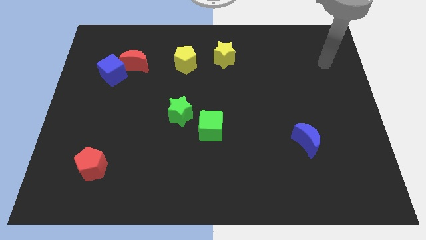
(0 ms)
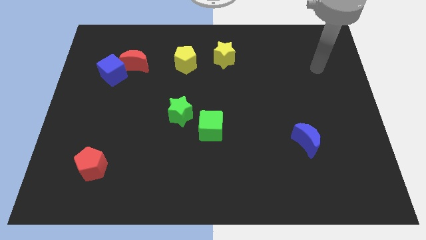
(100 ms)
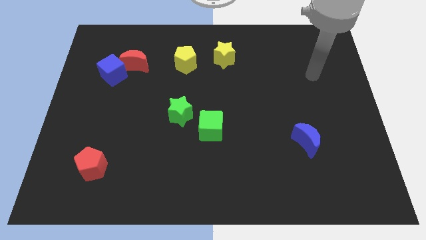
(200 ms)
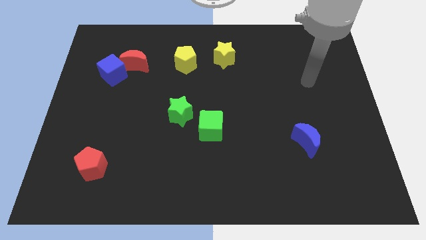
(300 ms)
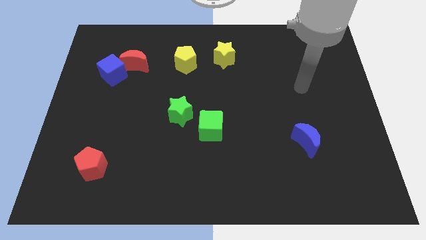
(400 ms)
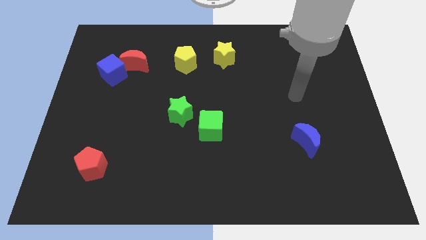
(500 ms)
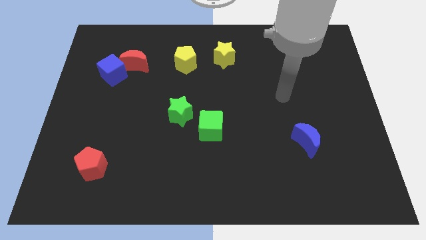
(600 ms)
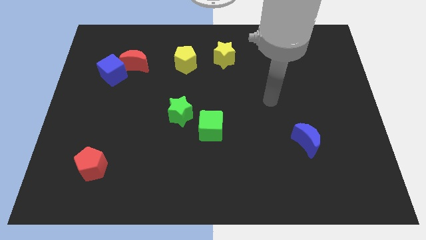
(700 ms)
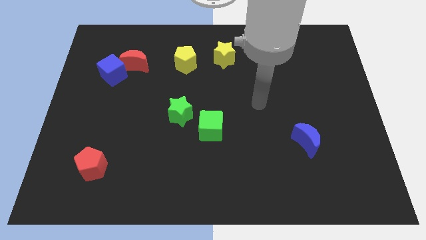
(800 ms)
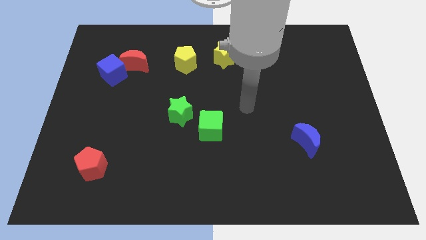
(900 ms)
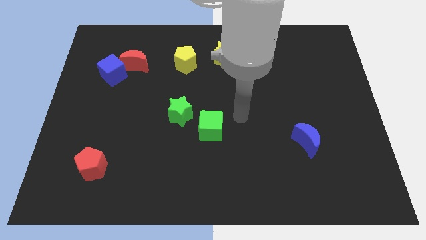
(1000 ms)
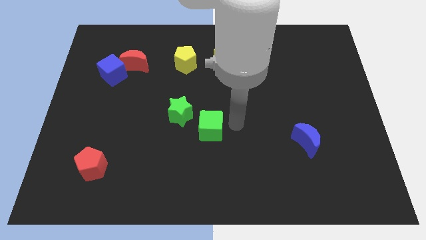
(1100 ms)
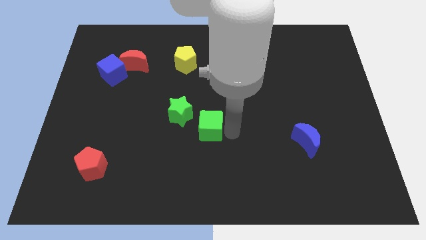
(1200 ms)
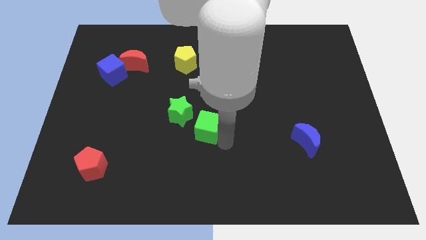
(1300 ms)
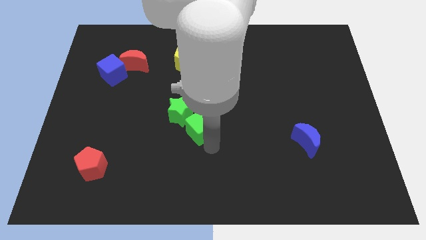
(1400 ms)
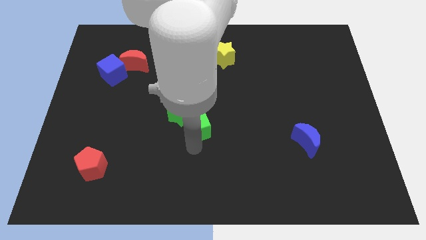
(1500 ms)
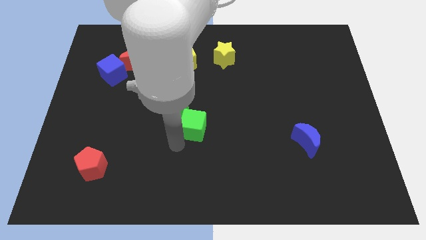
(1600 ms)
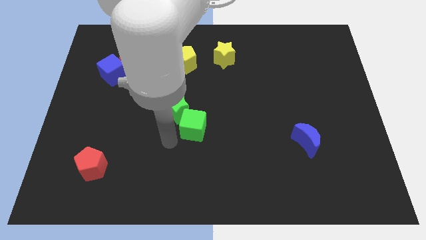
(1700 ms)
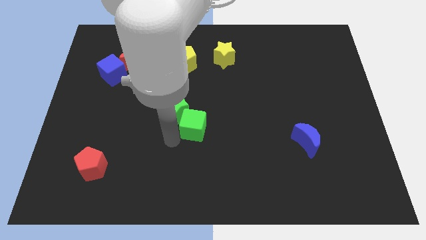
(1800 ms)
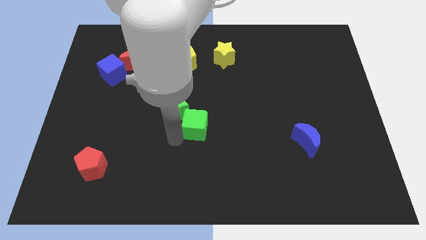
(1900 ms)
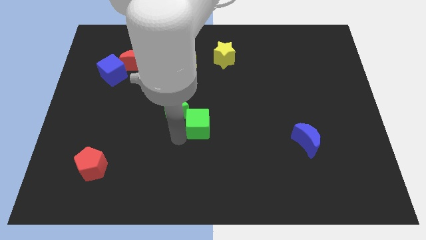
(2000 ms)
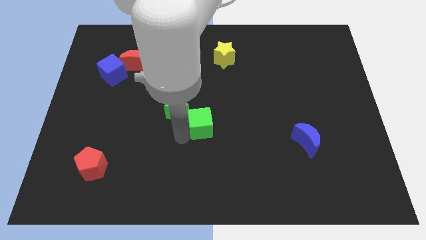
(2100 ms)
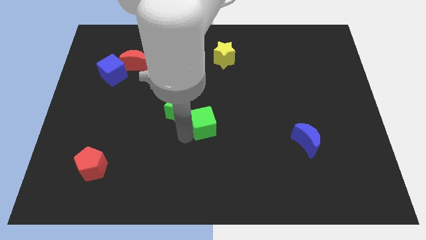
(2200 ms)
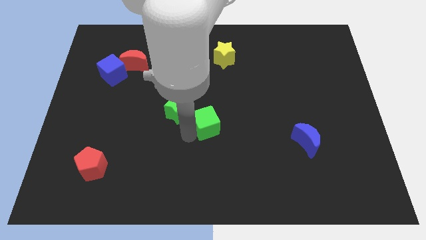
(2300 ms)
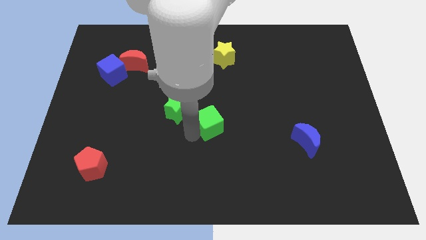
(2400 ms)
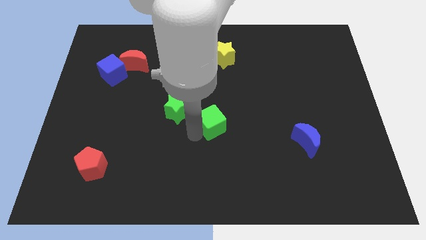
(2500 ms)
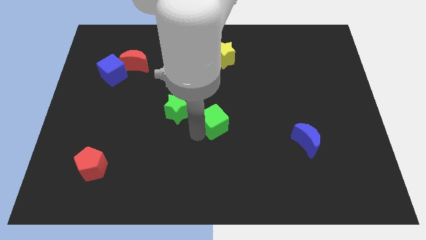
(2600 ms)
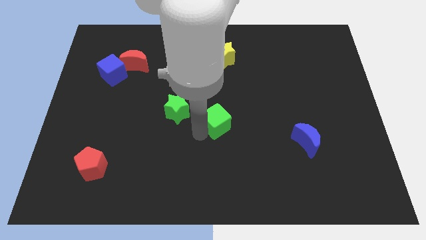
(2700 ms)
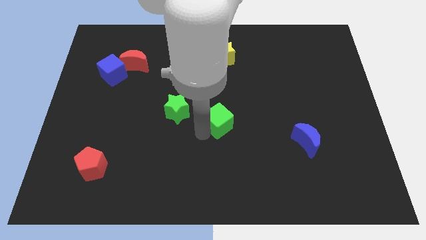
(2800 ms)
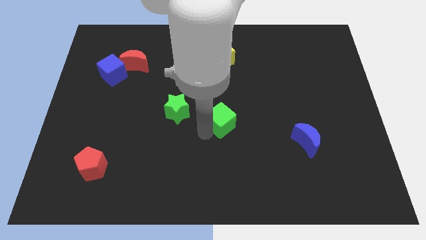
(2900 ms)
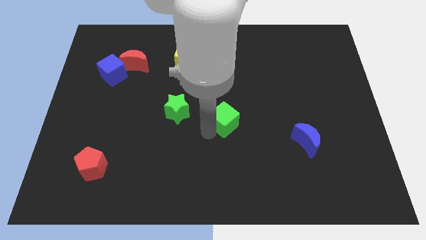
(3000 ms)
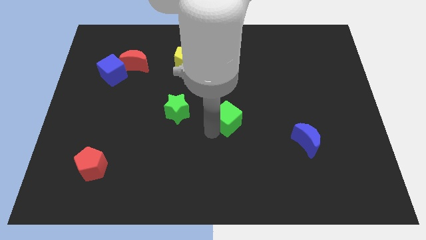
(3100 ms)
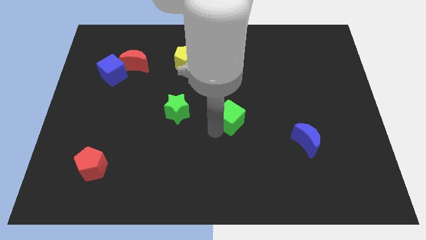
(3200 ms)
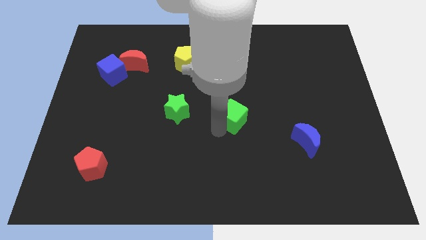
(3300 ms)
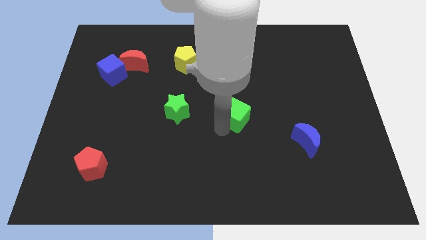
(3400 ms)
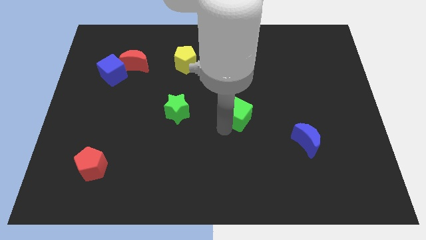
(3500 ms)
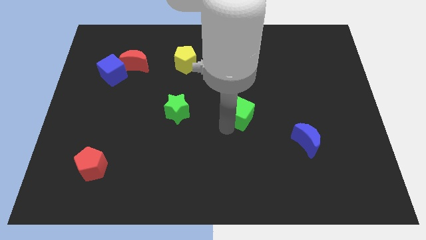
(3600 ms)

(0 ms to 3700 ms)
slightly move the green cube upwards and right diagonally

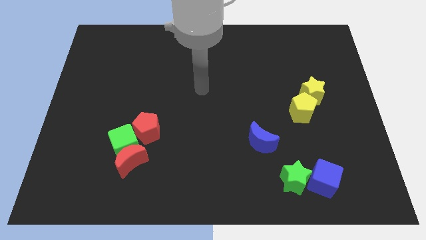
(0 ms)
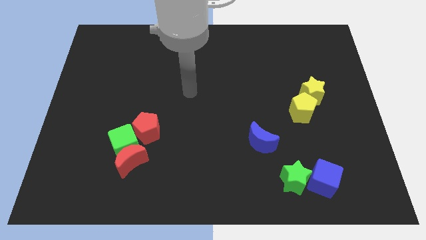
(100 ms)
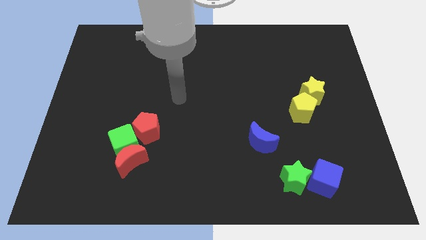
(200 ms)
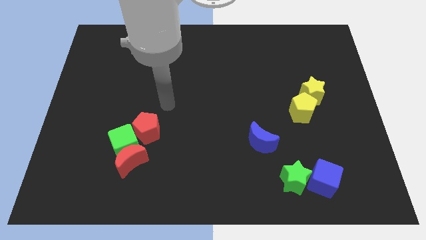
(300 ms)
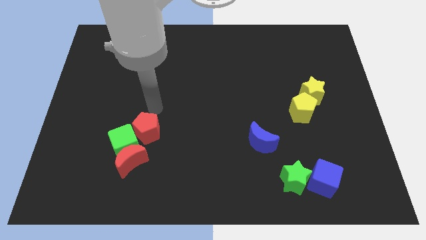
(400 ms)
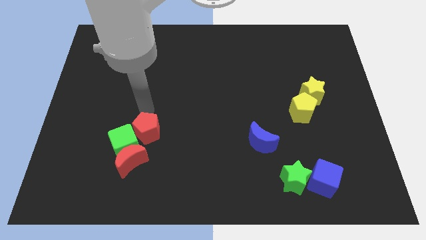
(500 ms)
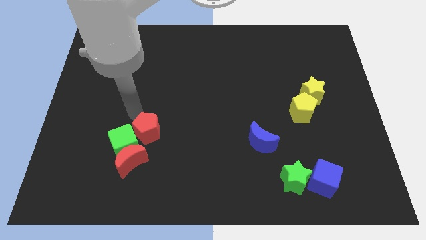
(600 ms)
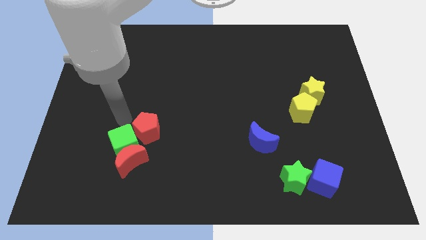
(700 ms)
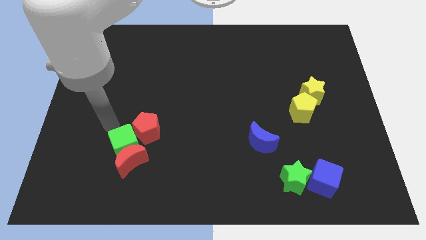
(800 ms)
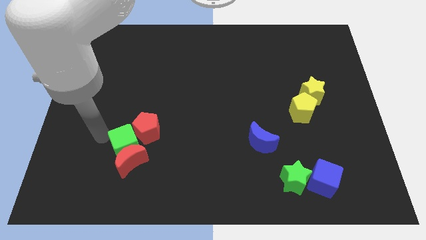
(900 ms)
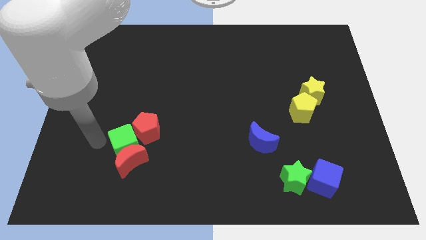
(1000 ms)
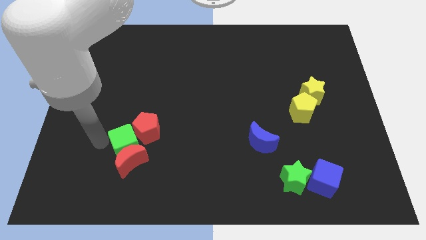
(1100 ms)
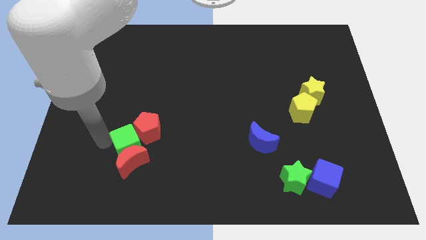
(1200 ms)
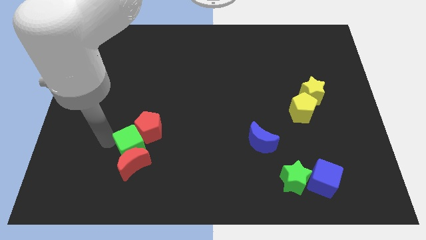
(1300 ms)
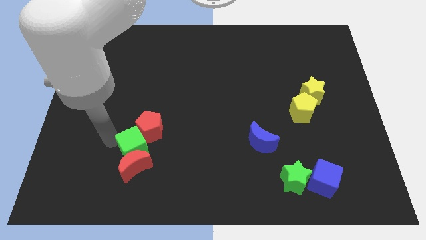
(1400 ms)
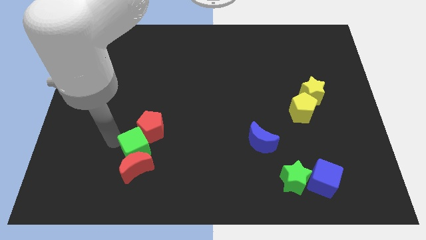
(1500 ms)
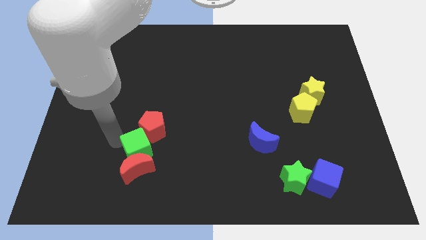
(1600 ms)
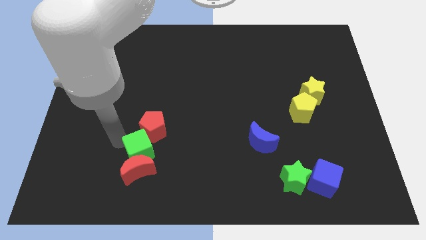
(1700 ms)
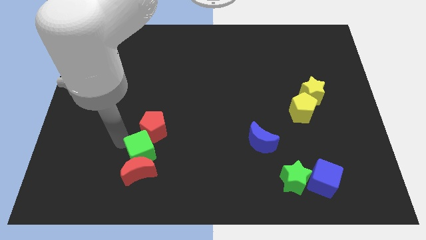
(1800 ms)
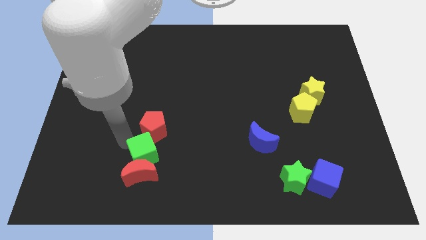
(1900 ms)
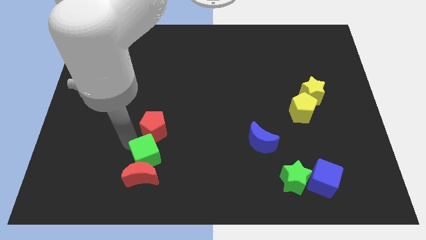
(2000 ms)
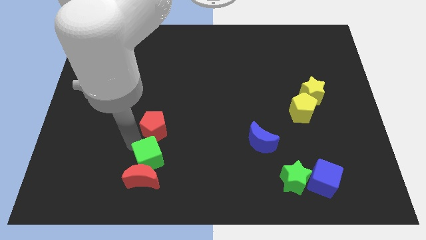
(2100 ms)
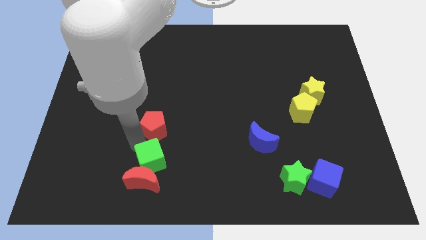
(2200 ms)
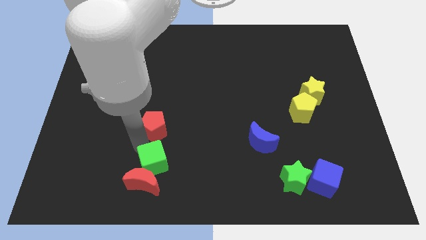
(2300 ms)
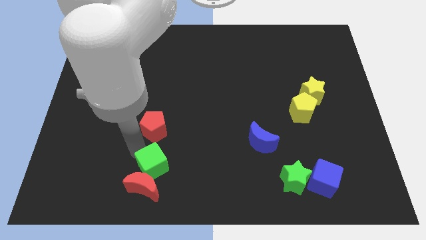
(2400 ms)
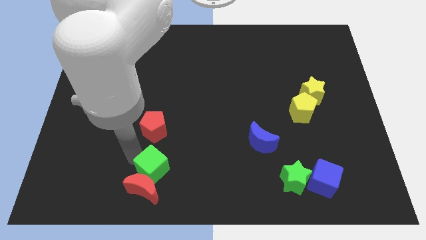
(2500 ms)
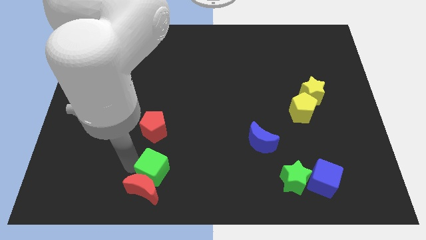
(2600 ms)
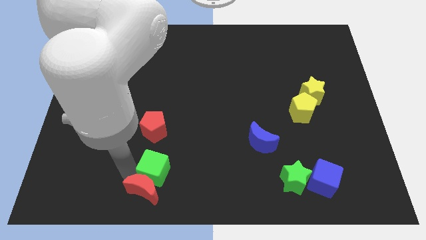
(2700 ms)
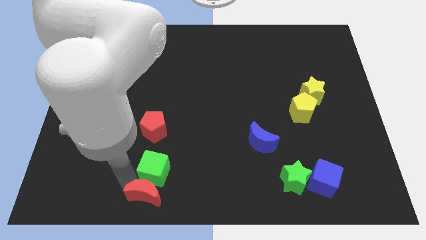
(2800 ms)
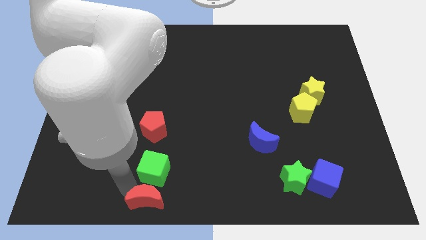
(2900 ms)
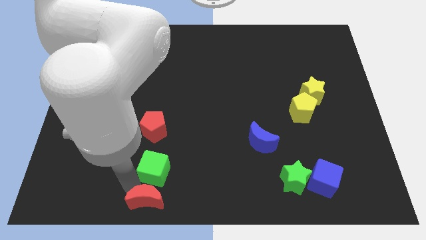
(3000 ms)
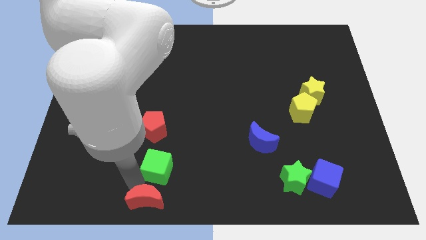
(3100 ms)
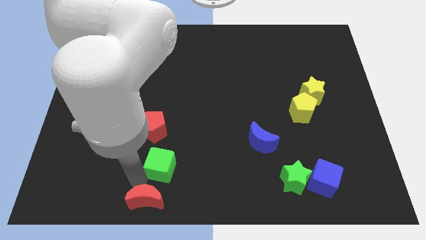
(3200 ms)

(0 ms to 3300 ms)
slide the green cube slightly to the right

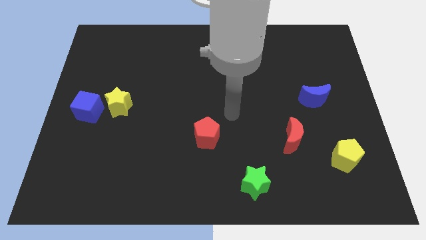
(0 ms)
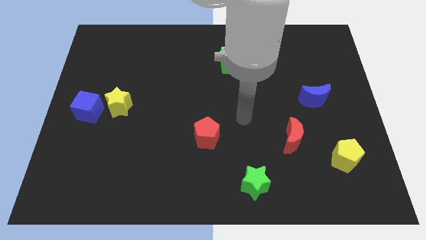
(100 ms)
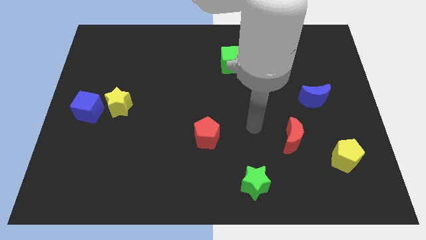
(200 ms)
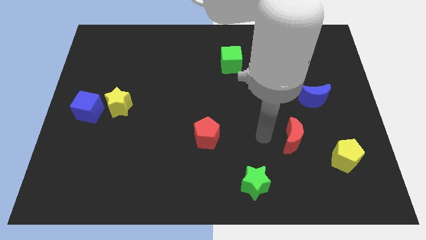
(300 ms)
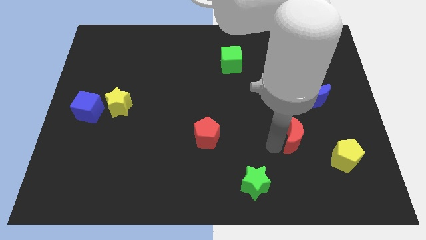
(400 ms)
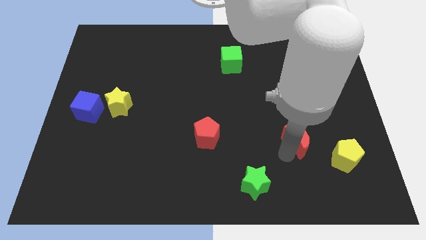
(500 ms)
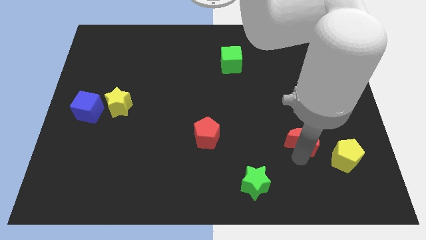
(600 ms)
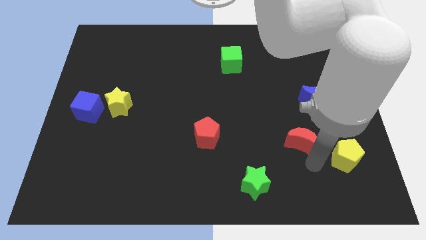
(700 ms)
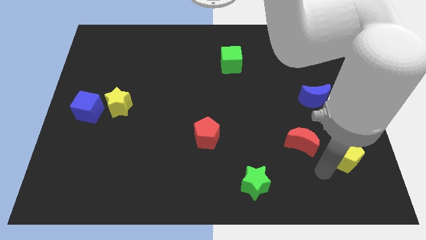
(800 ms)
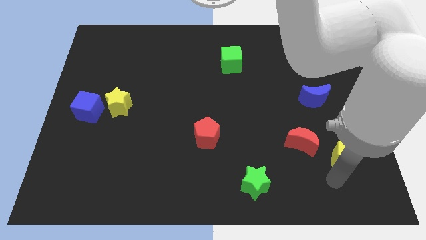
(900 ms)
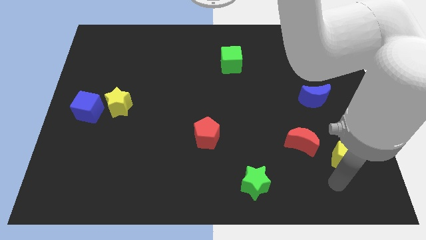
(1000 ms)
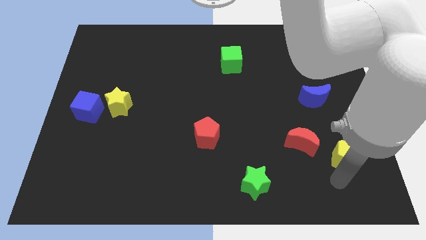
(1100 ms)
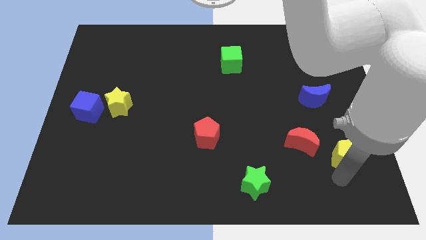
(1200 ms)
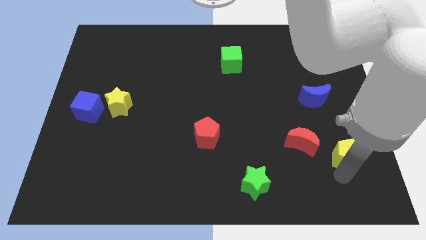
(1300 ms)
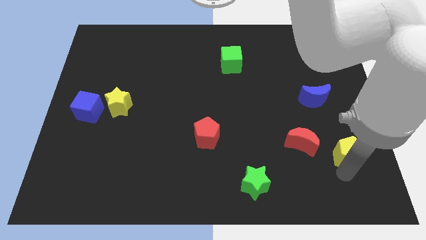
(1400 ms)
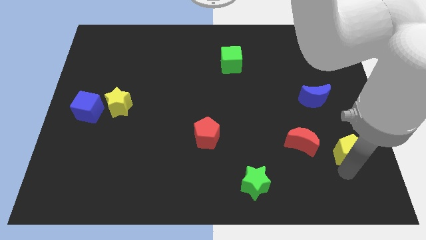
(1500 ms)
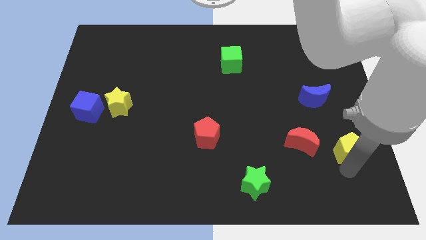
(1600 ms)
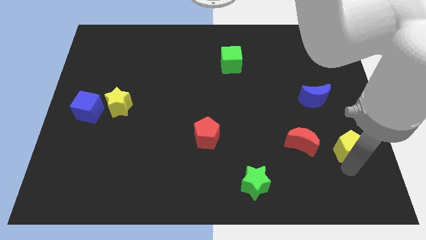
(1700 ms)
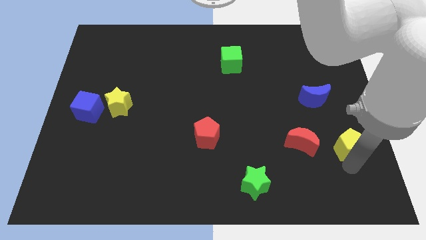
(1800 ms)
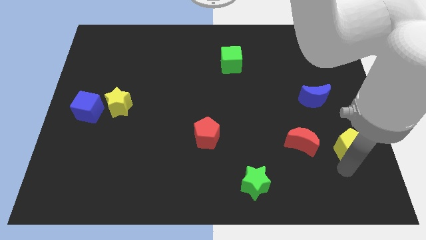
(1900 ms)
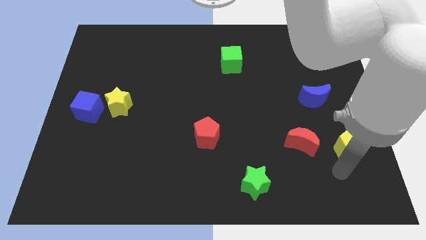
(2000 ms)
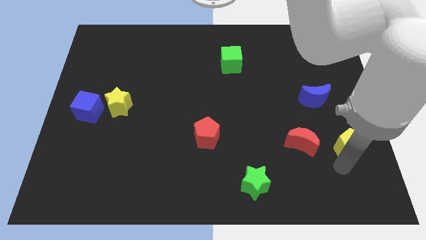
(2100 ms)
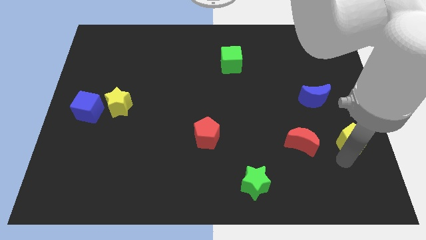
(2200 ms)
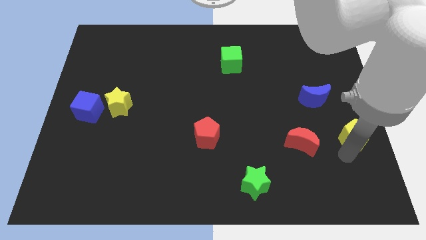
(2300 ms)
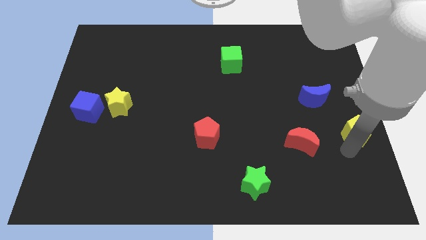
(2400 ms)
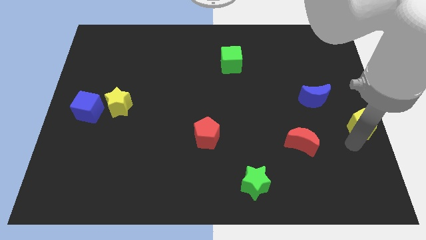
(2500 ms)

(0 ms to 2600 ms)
push the yellow pentagon somewhat up
